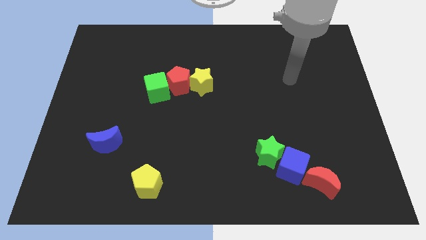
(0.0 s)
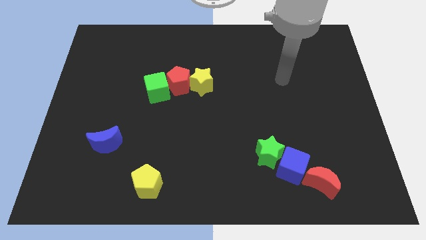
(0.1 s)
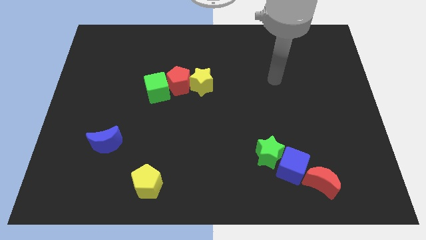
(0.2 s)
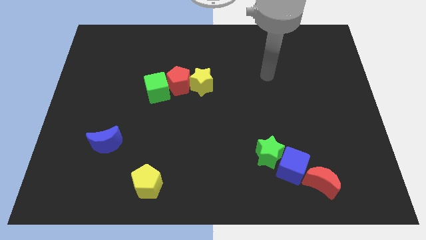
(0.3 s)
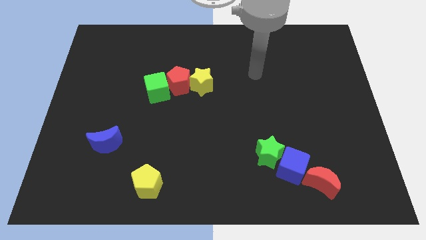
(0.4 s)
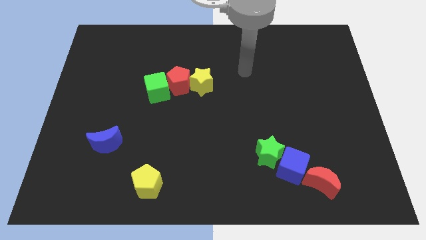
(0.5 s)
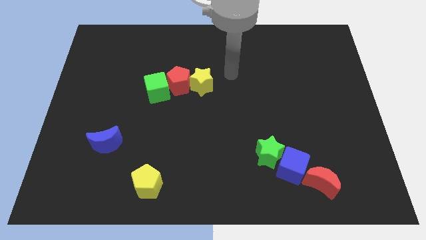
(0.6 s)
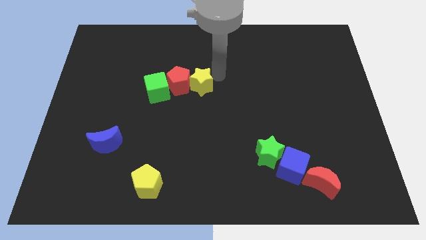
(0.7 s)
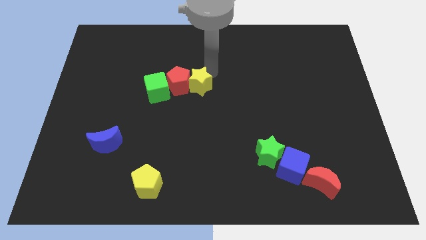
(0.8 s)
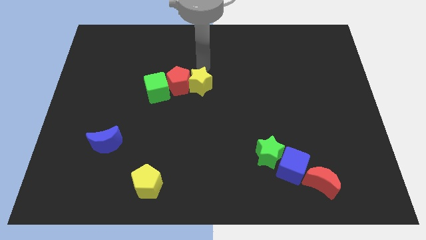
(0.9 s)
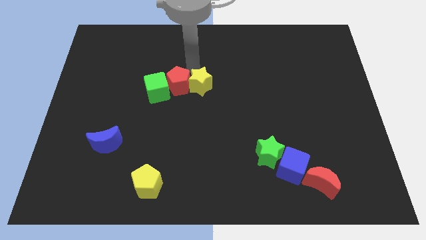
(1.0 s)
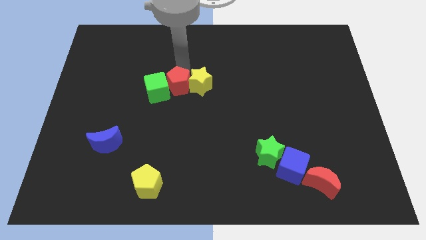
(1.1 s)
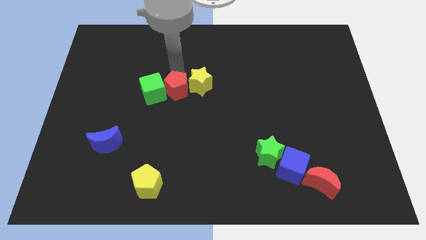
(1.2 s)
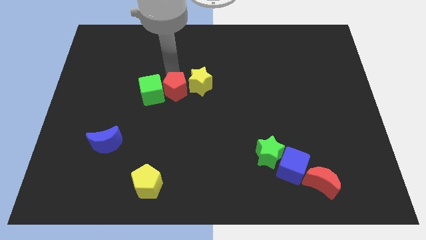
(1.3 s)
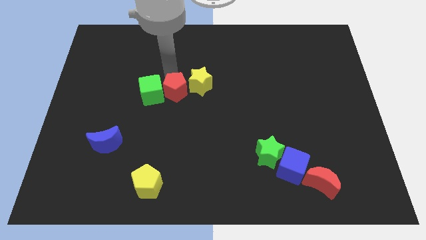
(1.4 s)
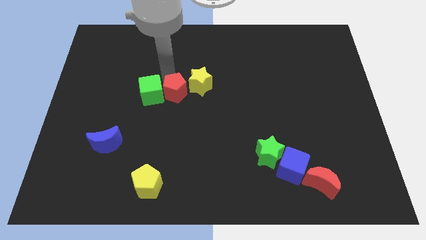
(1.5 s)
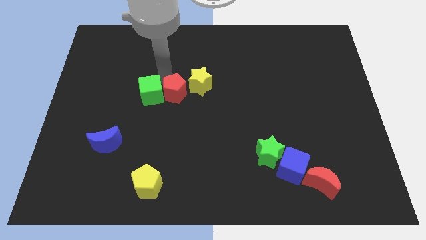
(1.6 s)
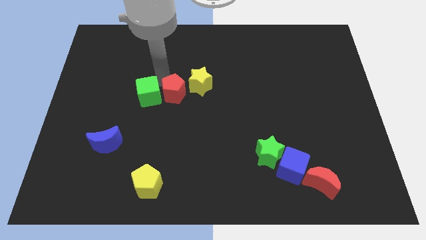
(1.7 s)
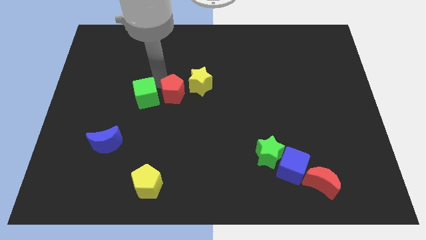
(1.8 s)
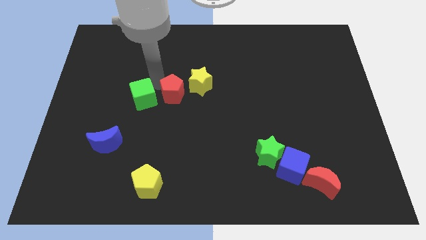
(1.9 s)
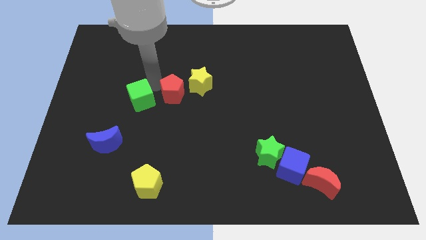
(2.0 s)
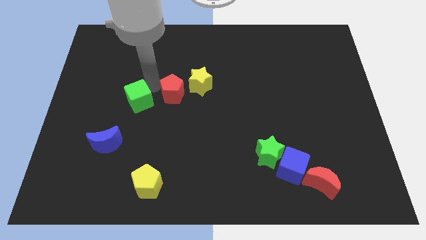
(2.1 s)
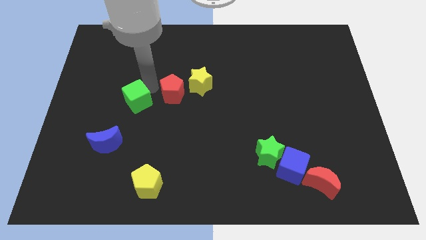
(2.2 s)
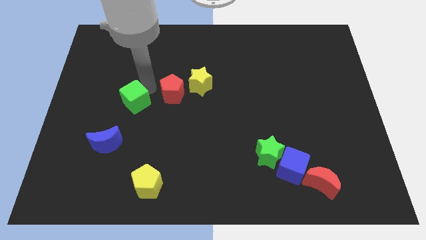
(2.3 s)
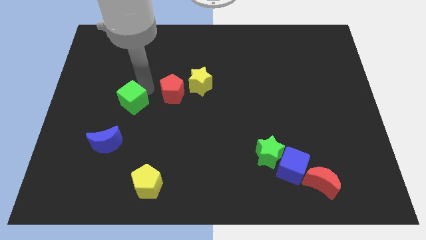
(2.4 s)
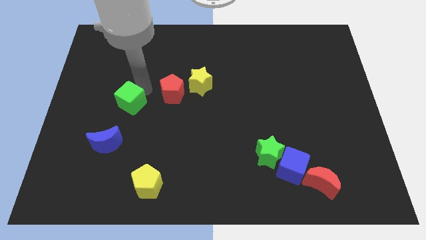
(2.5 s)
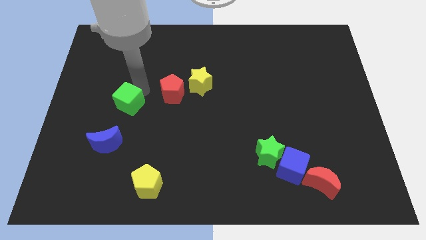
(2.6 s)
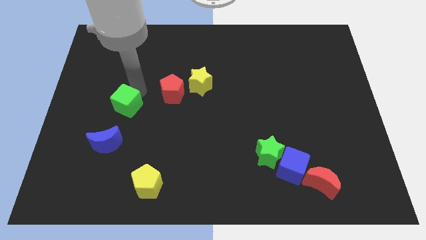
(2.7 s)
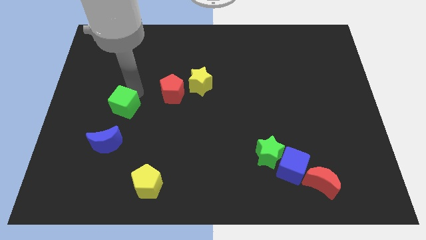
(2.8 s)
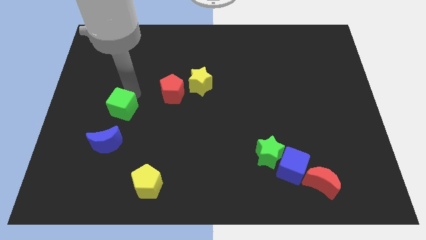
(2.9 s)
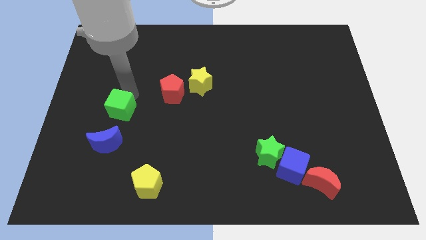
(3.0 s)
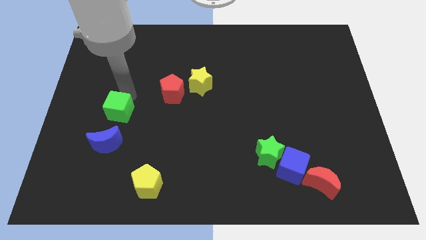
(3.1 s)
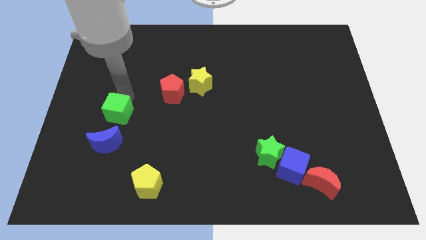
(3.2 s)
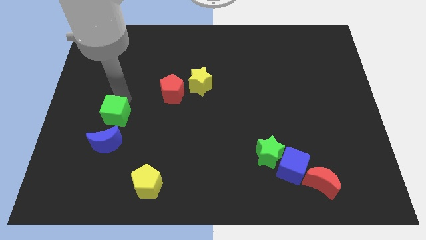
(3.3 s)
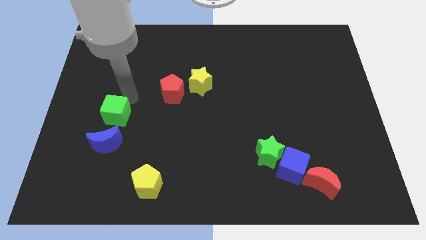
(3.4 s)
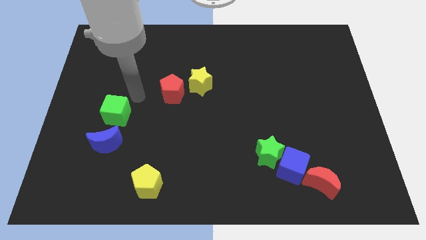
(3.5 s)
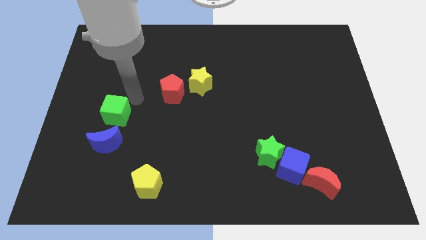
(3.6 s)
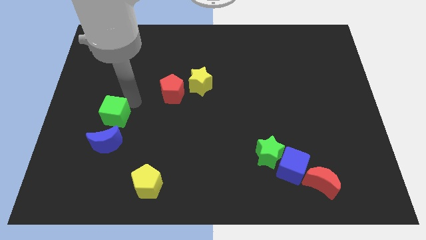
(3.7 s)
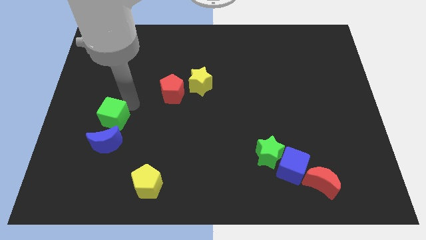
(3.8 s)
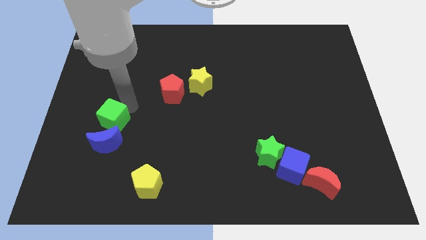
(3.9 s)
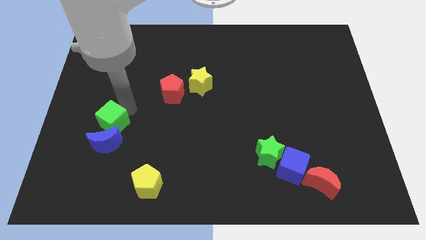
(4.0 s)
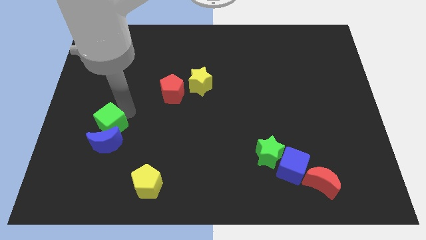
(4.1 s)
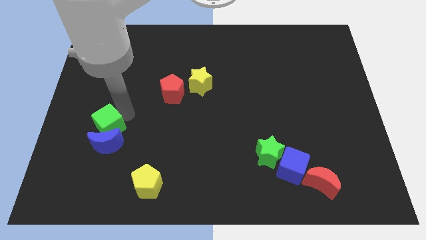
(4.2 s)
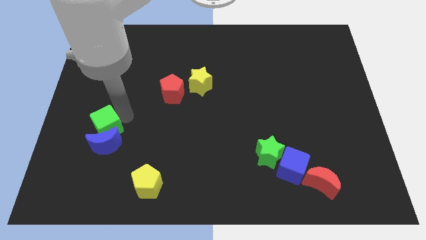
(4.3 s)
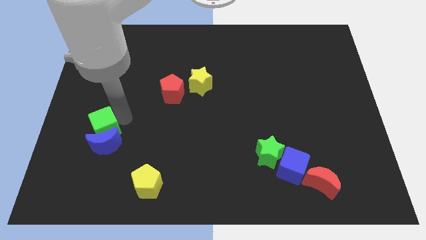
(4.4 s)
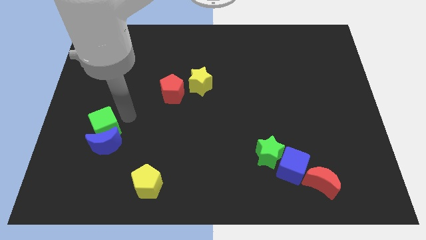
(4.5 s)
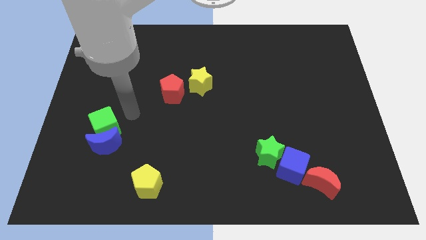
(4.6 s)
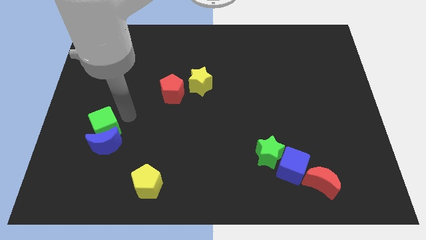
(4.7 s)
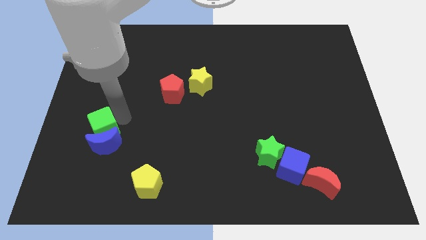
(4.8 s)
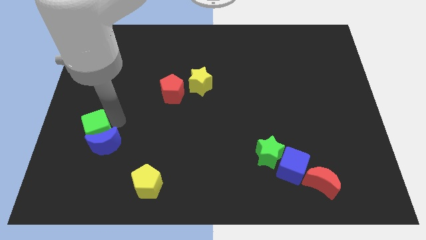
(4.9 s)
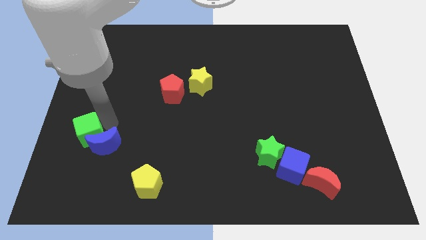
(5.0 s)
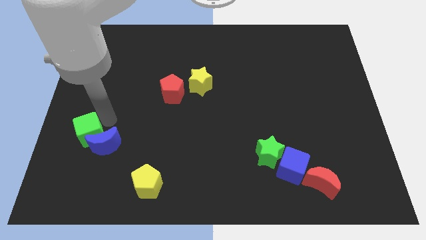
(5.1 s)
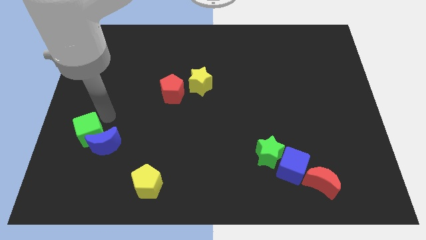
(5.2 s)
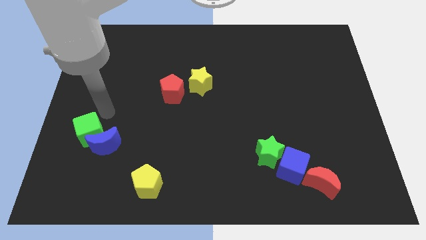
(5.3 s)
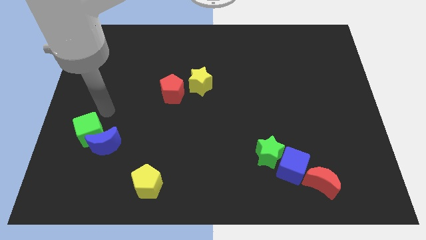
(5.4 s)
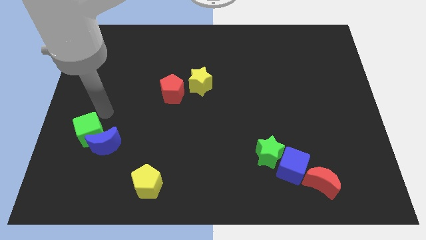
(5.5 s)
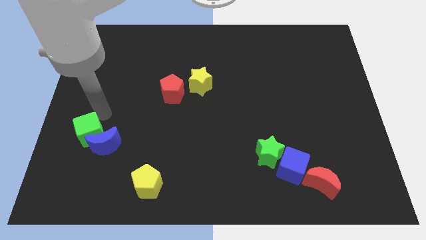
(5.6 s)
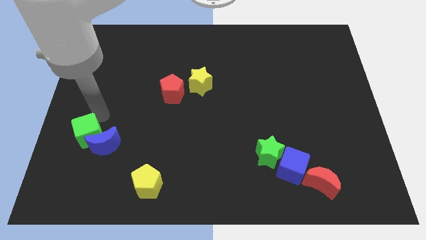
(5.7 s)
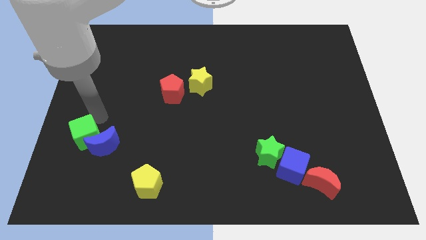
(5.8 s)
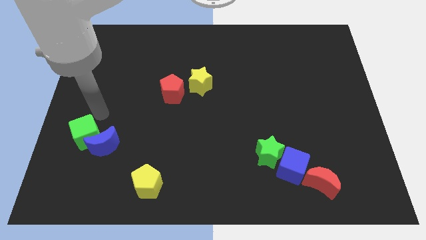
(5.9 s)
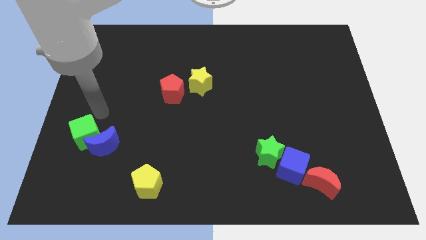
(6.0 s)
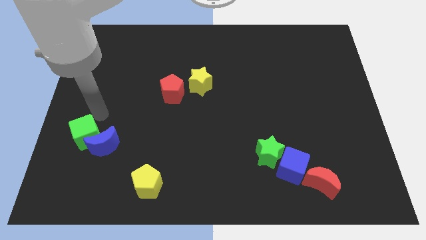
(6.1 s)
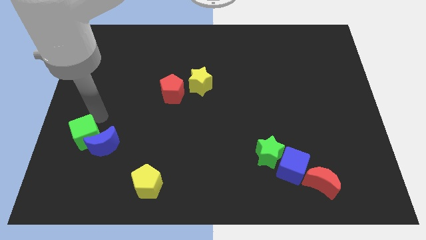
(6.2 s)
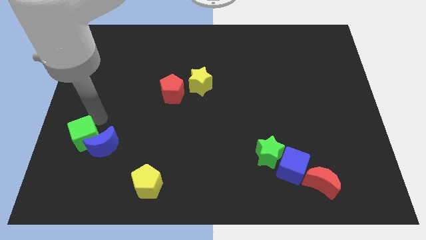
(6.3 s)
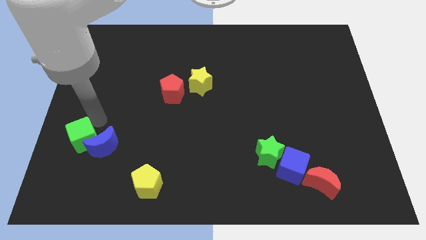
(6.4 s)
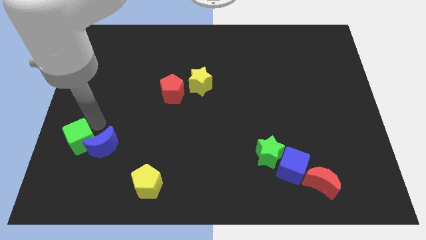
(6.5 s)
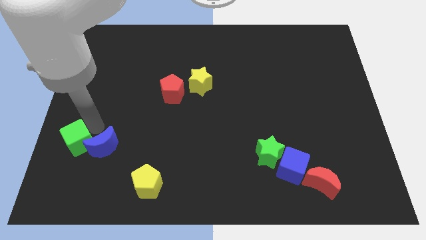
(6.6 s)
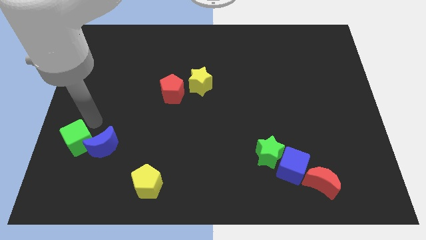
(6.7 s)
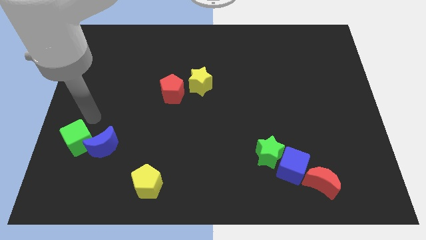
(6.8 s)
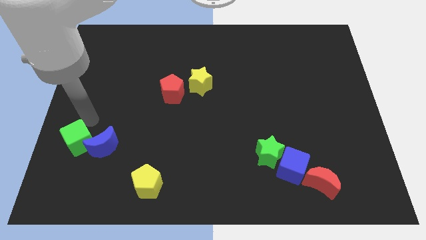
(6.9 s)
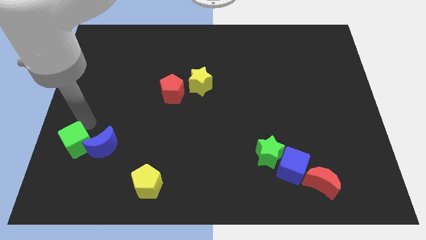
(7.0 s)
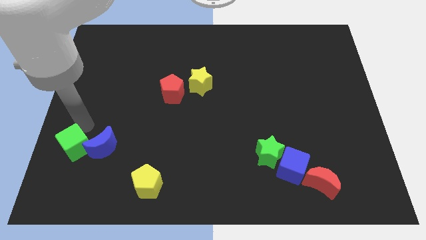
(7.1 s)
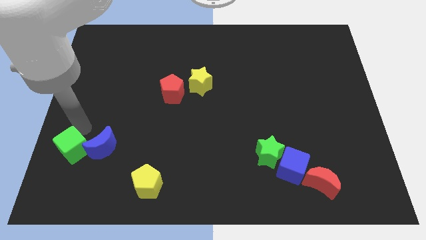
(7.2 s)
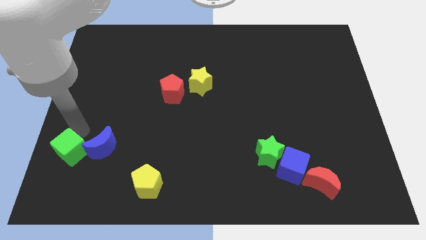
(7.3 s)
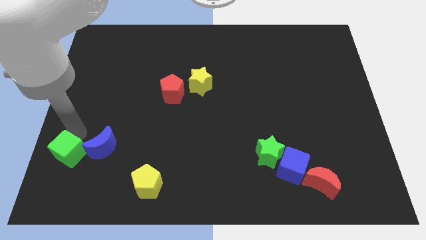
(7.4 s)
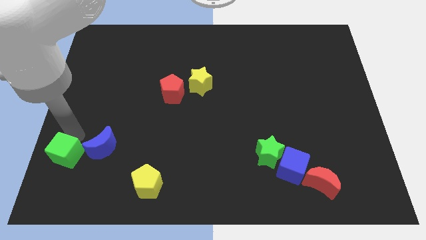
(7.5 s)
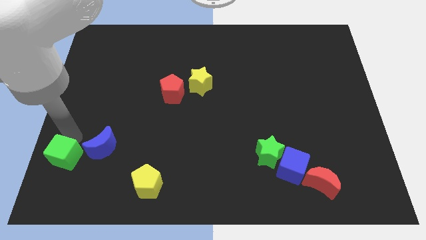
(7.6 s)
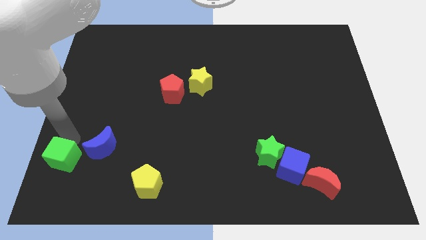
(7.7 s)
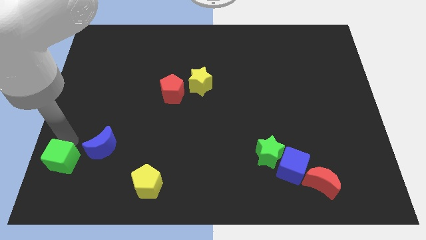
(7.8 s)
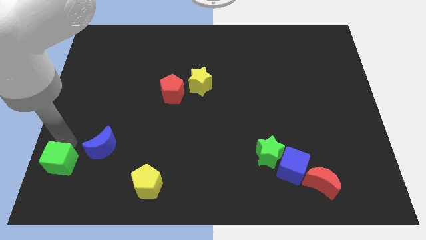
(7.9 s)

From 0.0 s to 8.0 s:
move the green cube to the bottom left of the board
